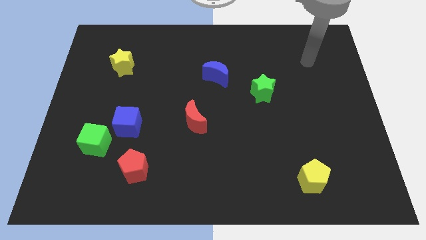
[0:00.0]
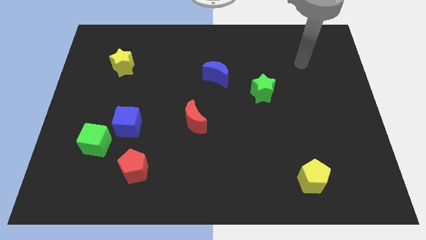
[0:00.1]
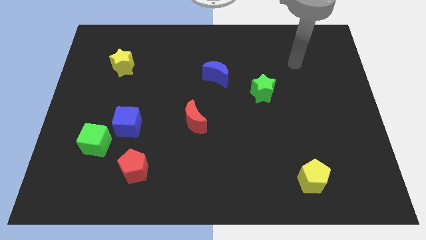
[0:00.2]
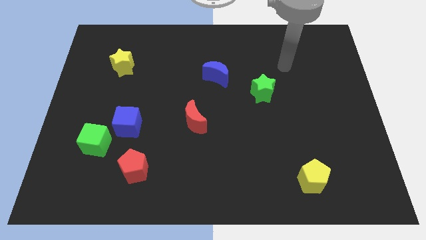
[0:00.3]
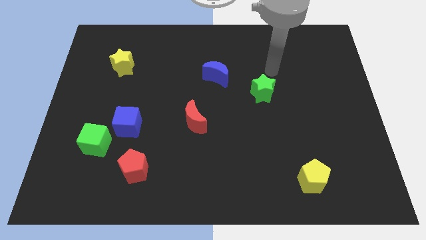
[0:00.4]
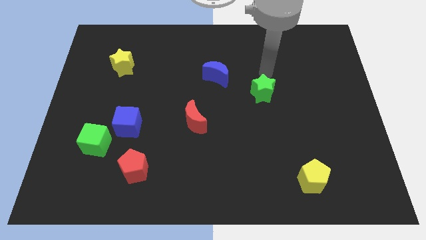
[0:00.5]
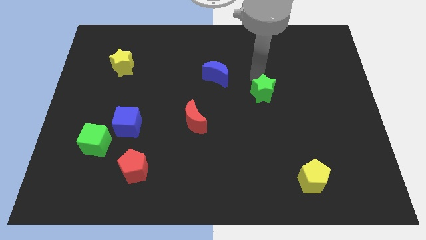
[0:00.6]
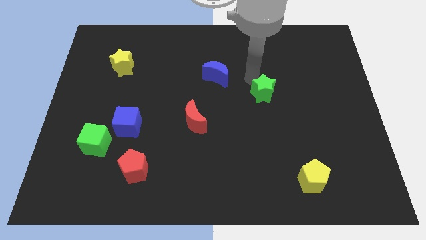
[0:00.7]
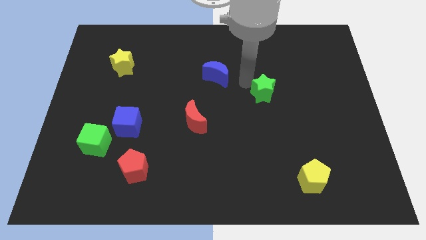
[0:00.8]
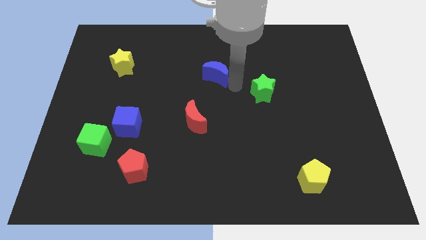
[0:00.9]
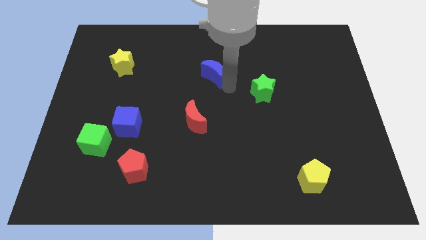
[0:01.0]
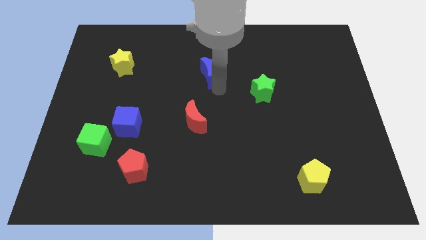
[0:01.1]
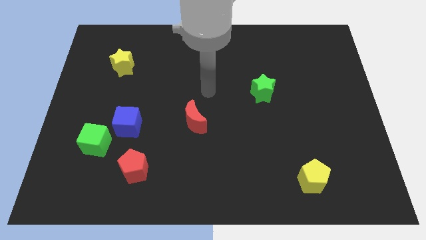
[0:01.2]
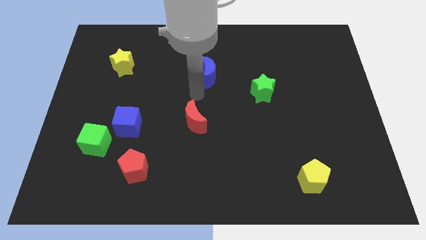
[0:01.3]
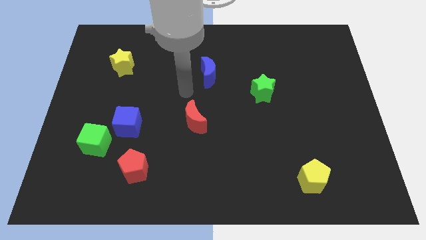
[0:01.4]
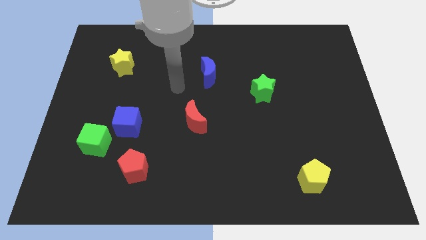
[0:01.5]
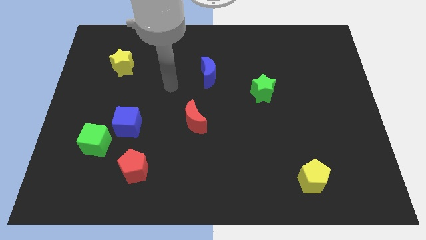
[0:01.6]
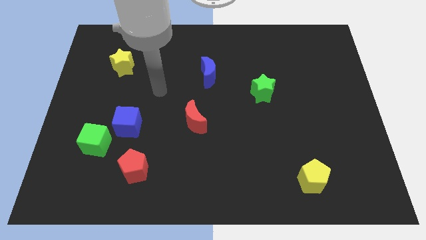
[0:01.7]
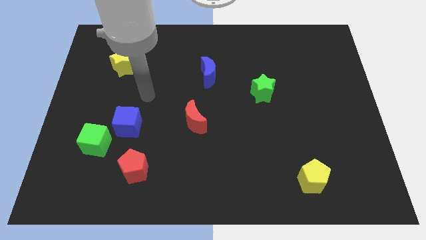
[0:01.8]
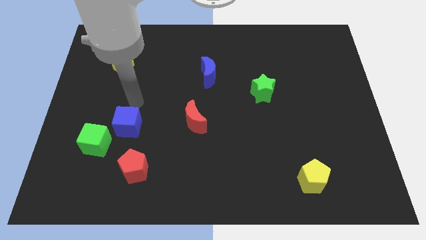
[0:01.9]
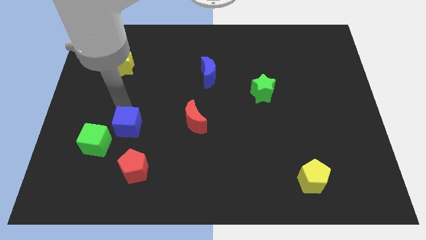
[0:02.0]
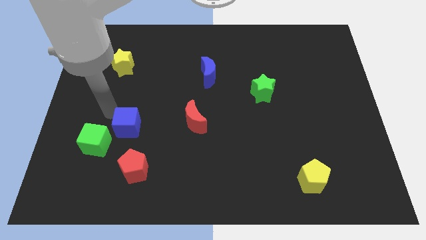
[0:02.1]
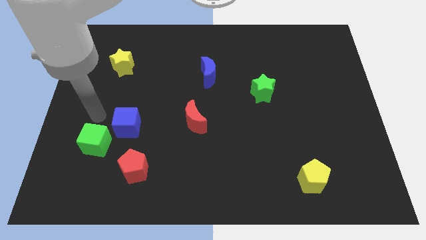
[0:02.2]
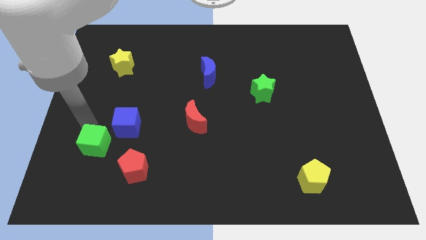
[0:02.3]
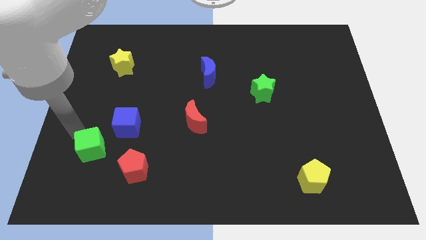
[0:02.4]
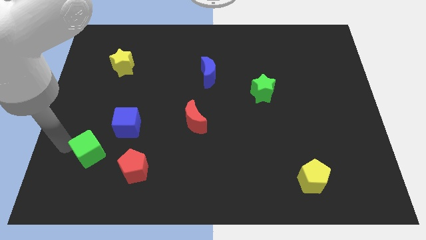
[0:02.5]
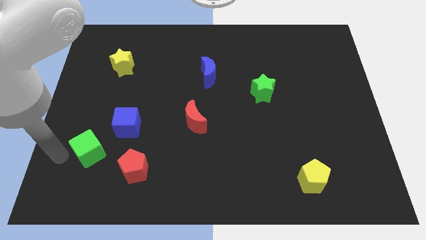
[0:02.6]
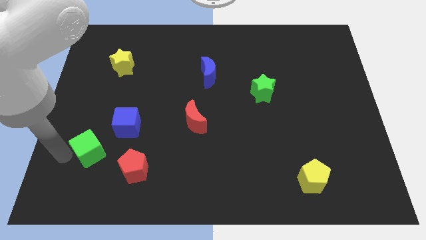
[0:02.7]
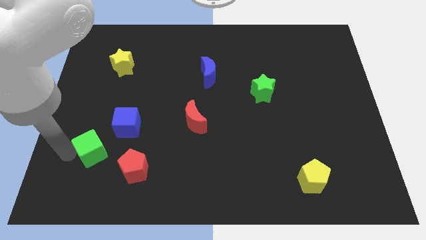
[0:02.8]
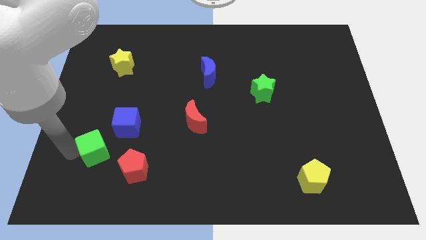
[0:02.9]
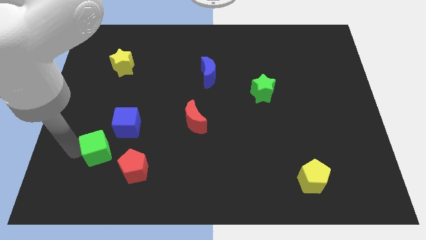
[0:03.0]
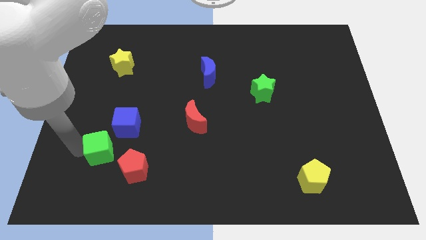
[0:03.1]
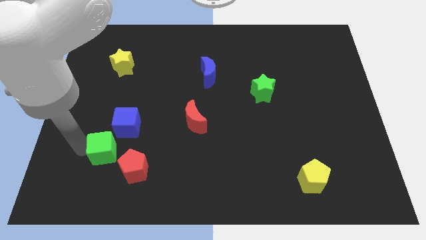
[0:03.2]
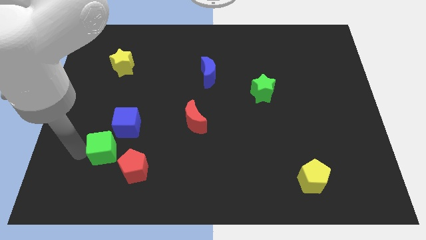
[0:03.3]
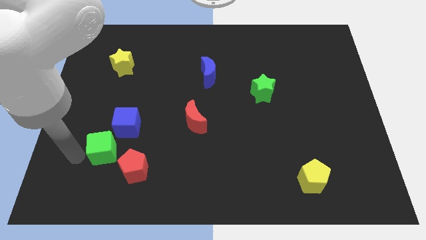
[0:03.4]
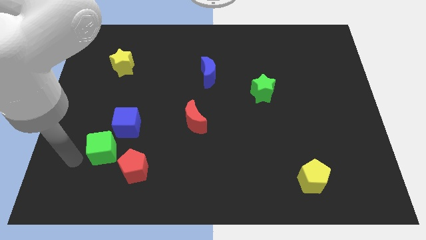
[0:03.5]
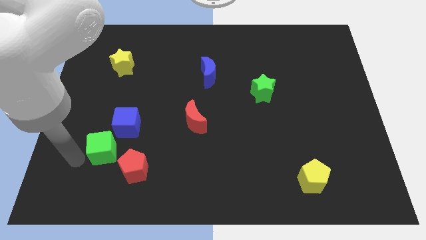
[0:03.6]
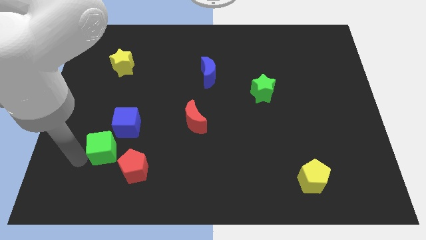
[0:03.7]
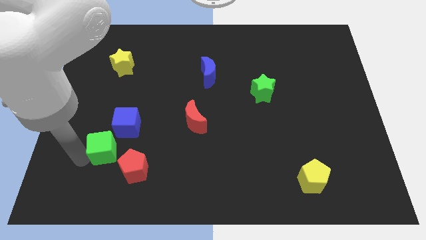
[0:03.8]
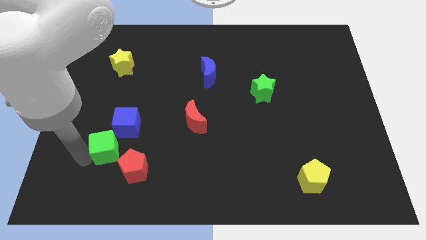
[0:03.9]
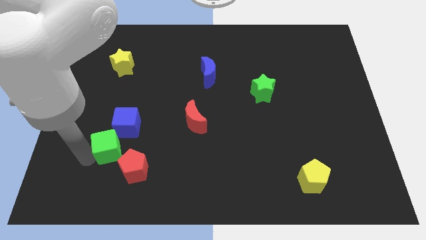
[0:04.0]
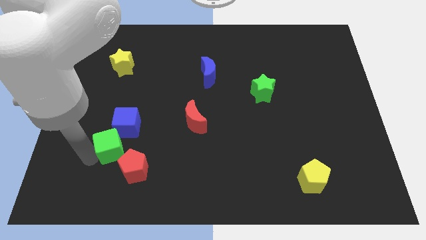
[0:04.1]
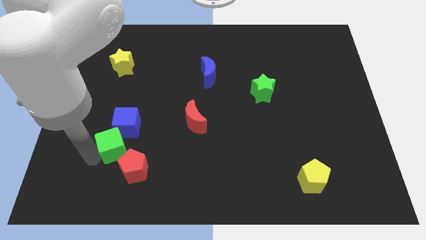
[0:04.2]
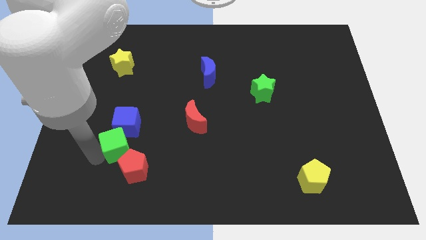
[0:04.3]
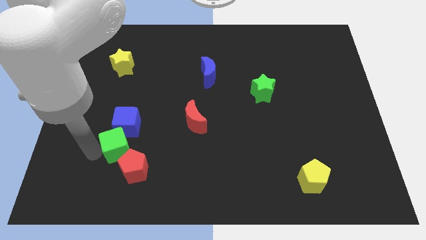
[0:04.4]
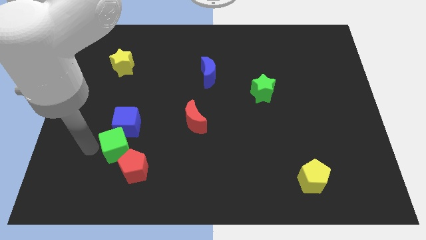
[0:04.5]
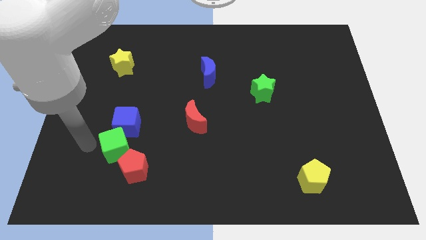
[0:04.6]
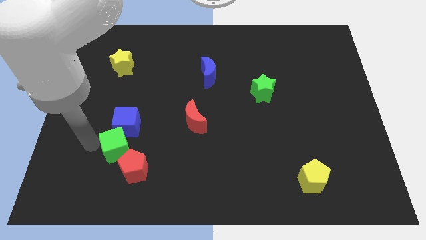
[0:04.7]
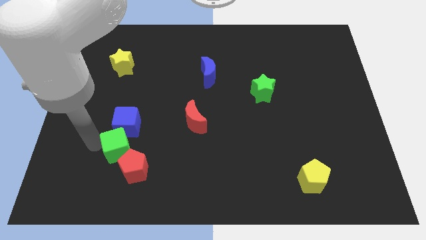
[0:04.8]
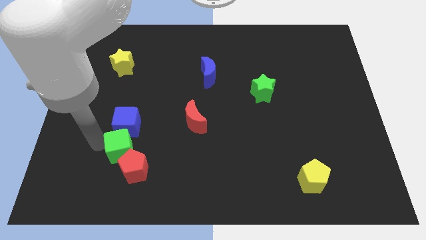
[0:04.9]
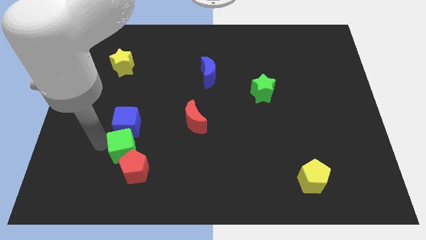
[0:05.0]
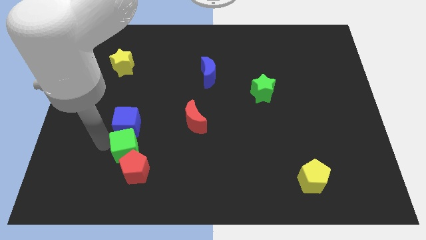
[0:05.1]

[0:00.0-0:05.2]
slide the green cube a little right

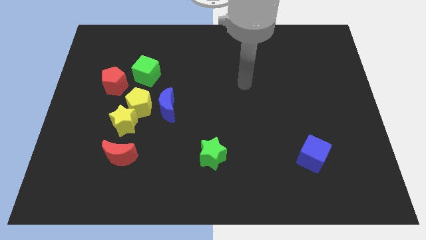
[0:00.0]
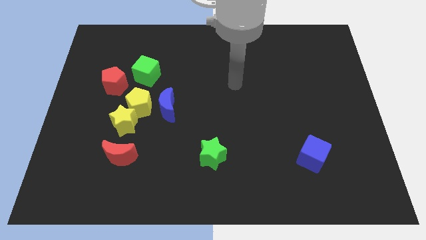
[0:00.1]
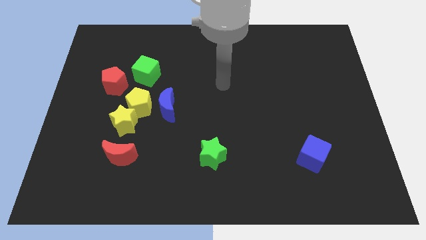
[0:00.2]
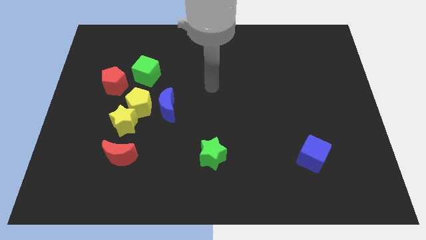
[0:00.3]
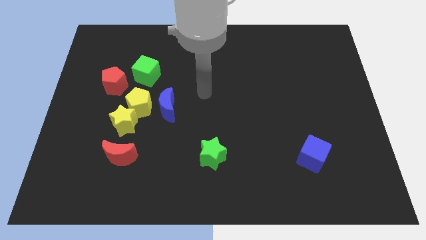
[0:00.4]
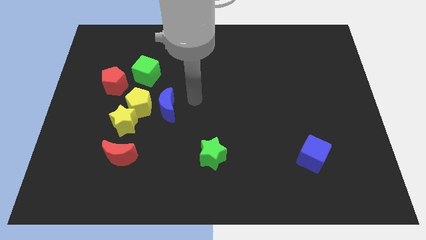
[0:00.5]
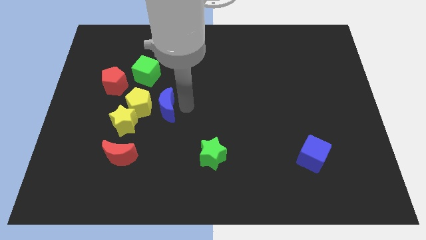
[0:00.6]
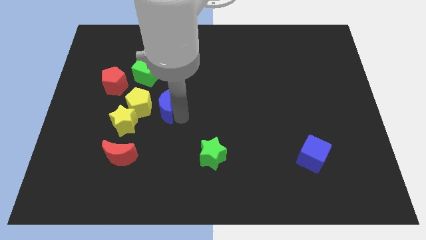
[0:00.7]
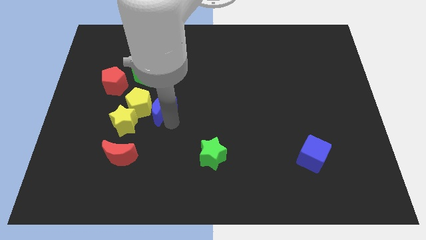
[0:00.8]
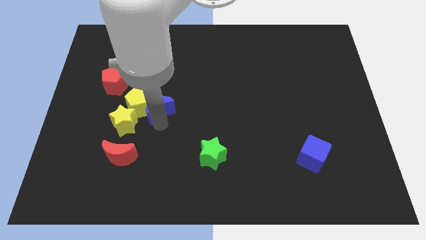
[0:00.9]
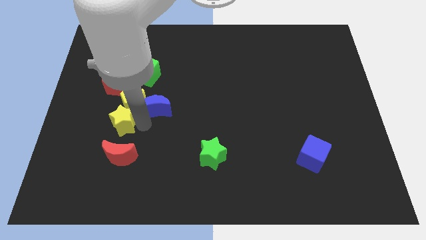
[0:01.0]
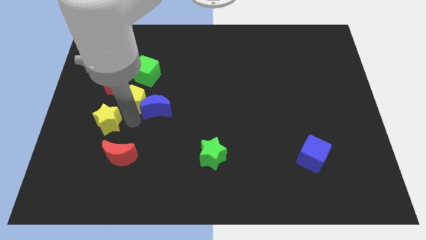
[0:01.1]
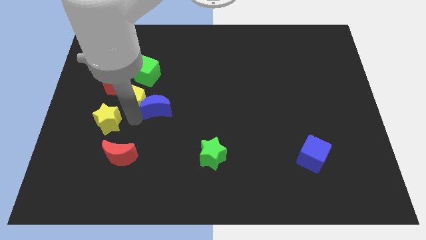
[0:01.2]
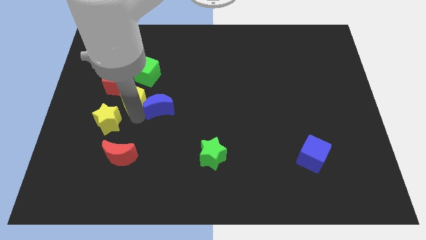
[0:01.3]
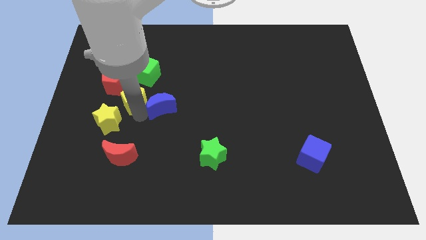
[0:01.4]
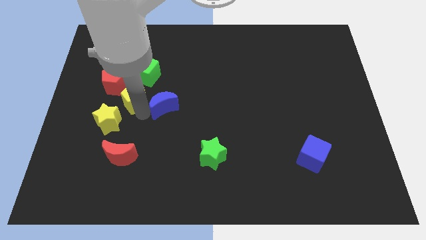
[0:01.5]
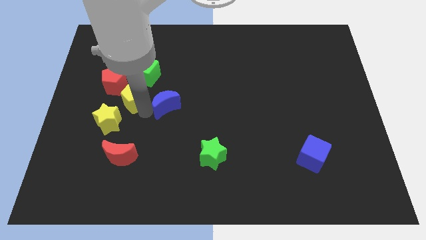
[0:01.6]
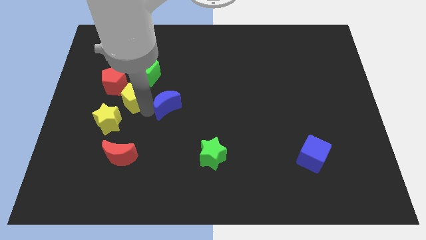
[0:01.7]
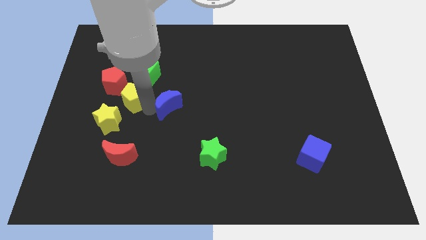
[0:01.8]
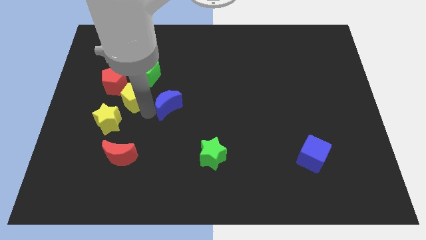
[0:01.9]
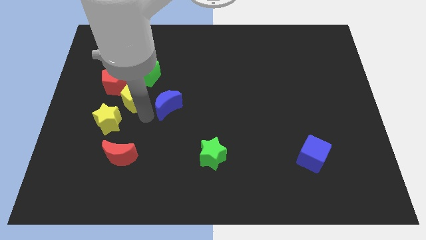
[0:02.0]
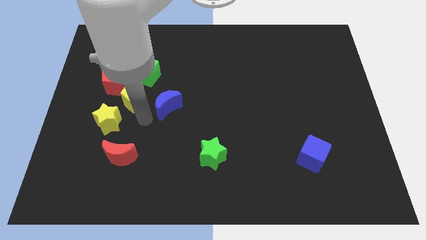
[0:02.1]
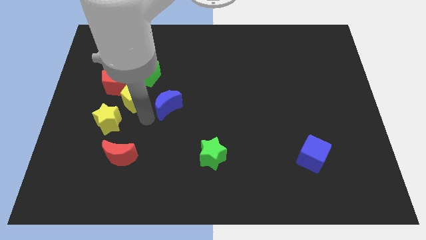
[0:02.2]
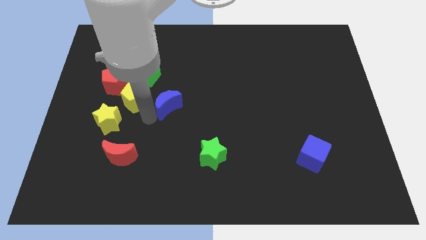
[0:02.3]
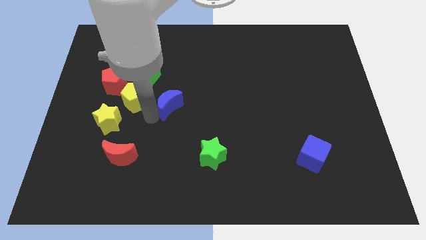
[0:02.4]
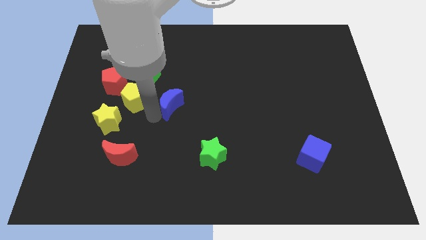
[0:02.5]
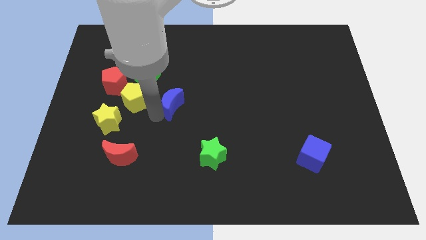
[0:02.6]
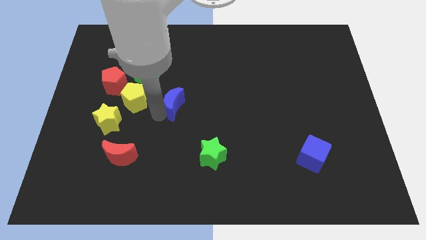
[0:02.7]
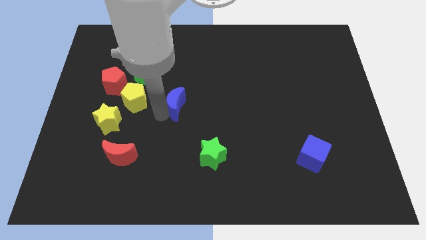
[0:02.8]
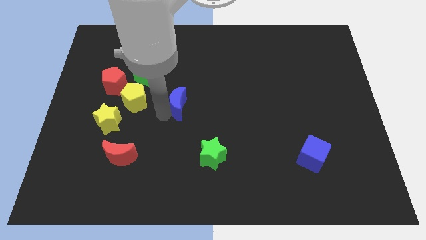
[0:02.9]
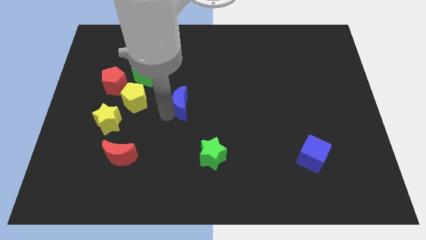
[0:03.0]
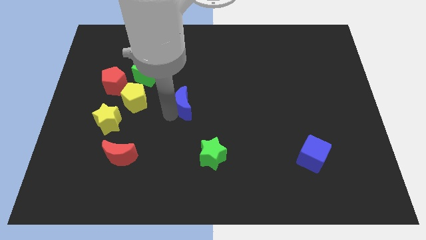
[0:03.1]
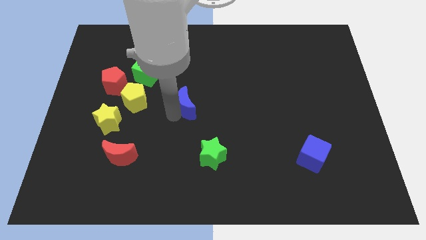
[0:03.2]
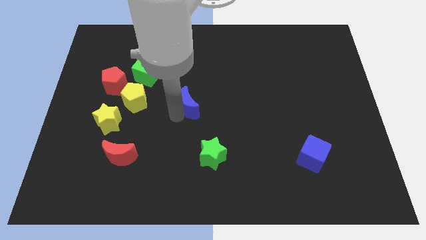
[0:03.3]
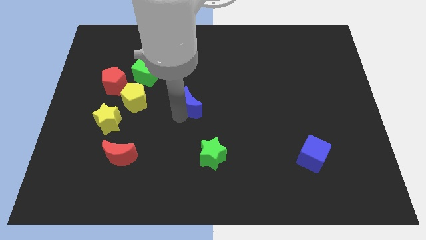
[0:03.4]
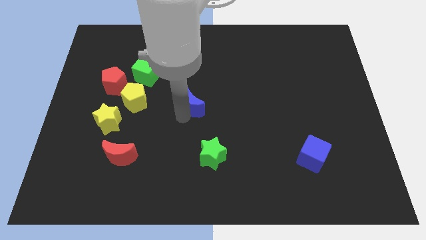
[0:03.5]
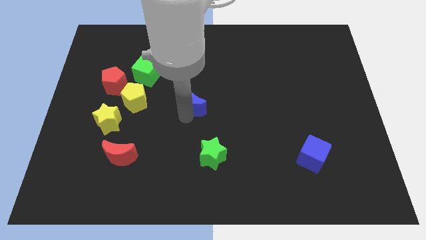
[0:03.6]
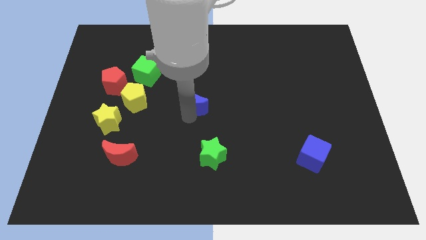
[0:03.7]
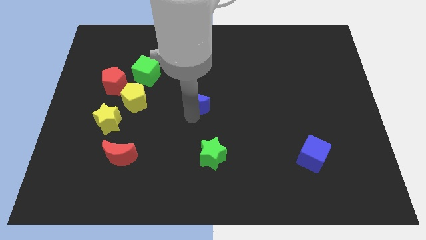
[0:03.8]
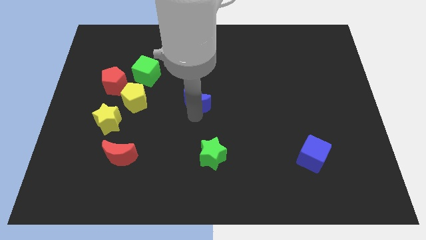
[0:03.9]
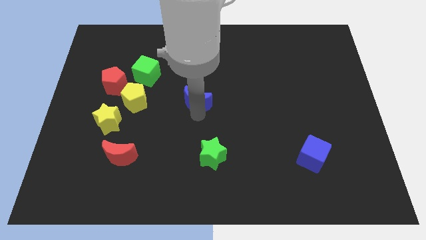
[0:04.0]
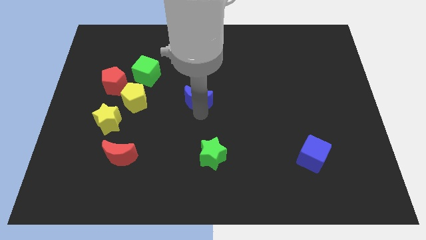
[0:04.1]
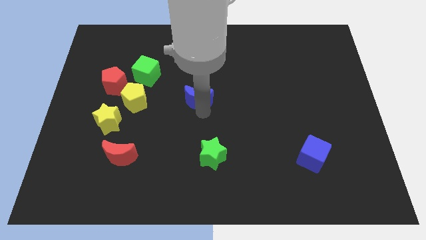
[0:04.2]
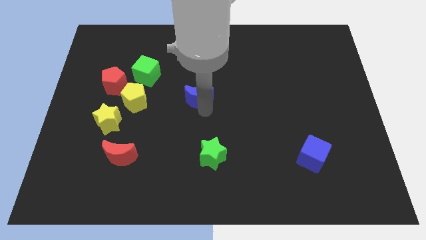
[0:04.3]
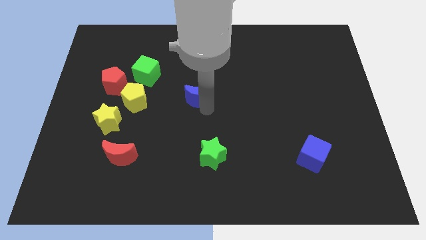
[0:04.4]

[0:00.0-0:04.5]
slightly move the blue moon up and then to the right
